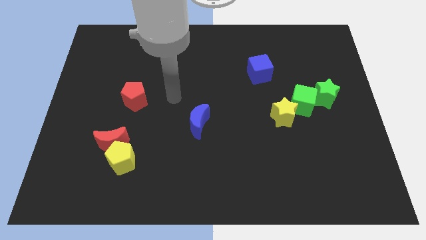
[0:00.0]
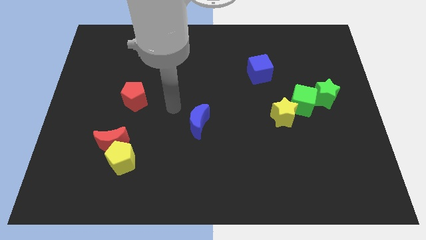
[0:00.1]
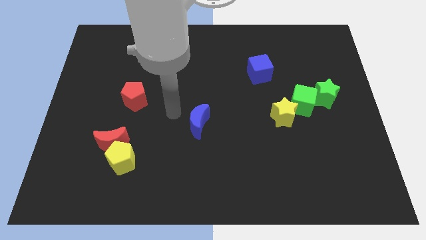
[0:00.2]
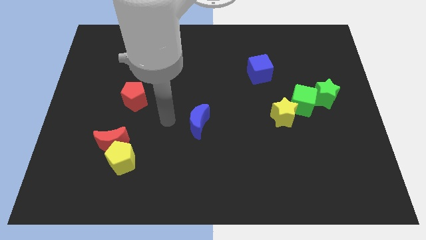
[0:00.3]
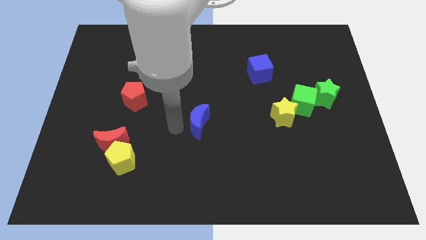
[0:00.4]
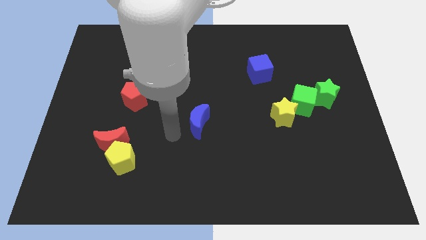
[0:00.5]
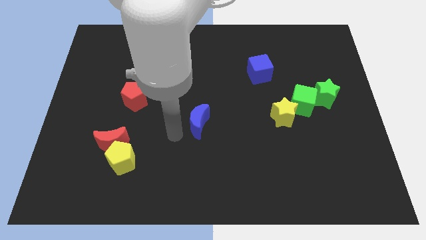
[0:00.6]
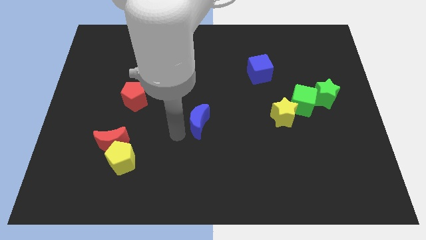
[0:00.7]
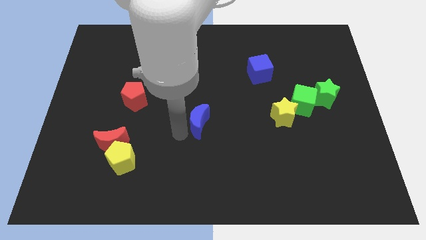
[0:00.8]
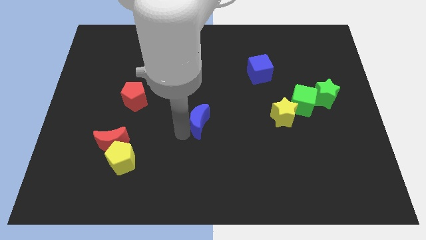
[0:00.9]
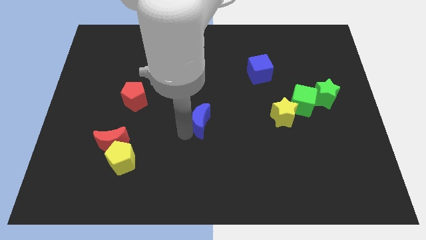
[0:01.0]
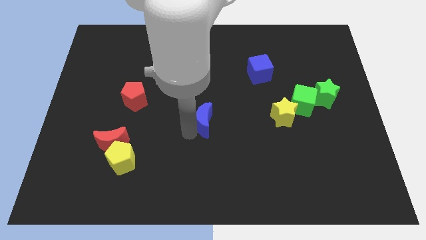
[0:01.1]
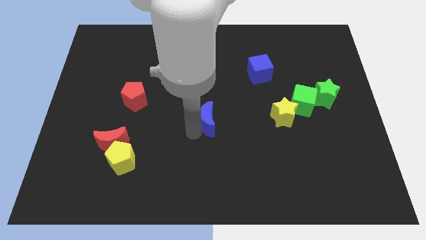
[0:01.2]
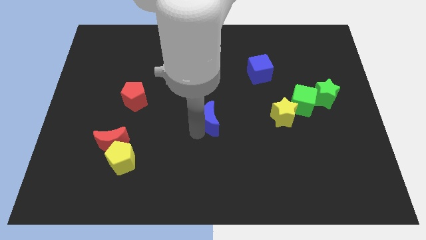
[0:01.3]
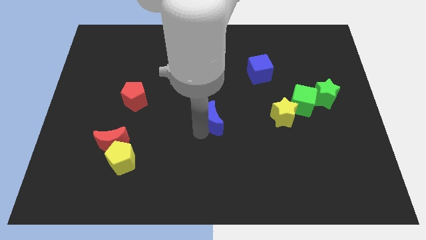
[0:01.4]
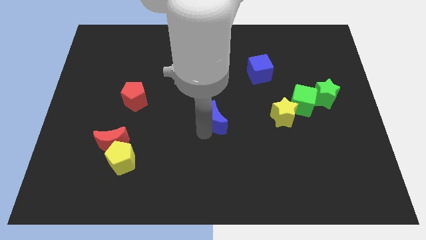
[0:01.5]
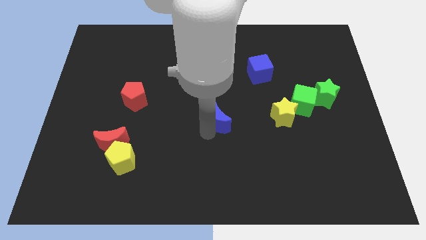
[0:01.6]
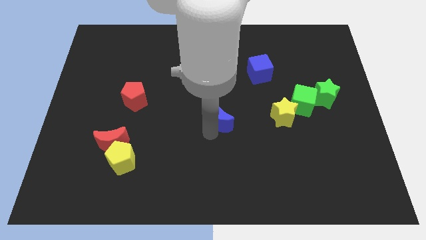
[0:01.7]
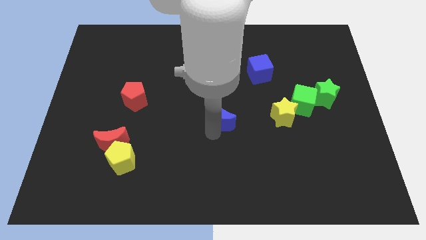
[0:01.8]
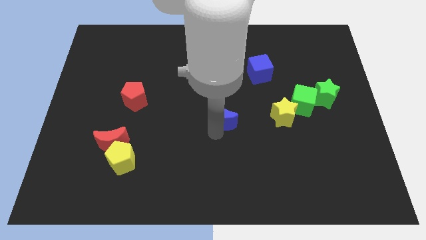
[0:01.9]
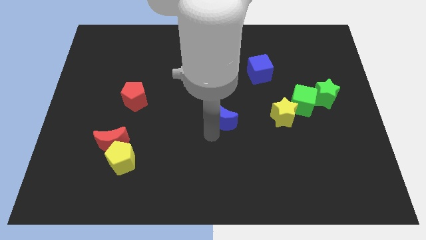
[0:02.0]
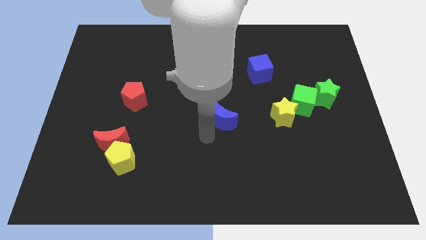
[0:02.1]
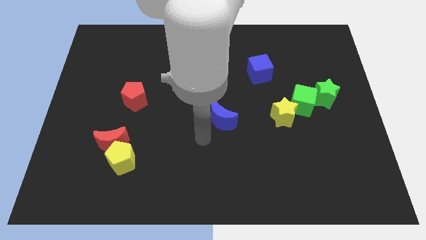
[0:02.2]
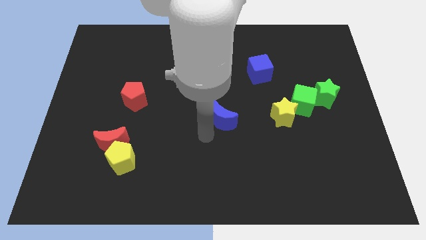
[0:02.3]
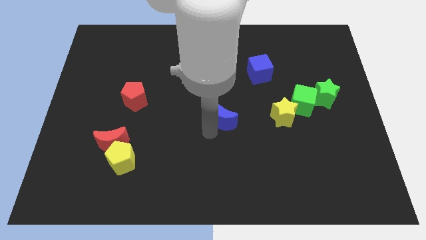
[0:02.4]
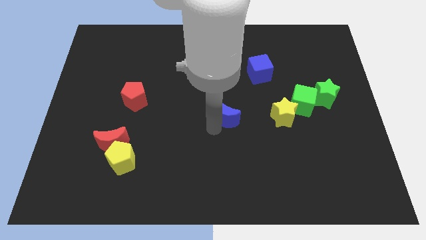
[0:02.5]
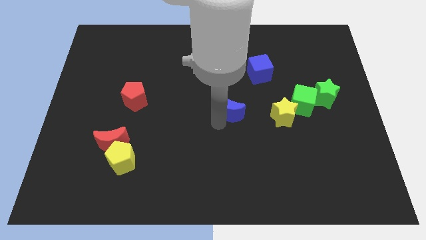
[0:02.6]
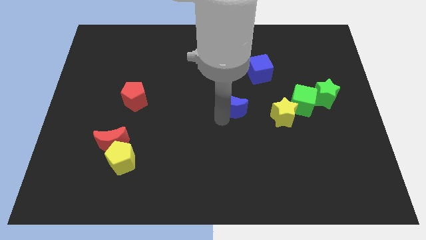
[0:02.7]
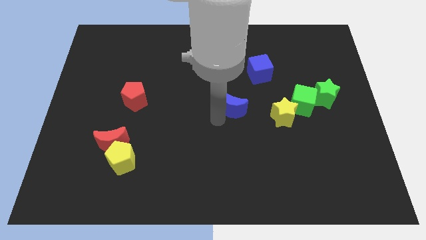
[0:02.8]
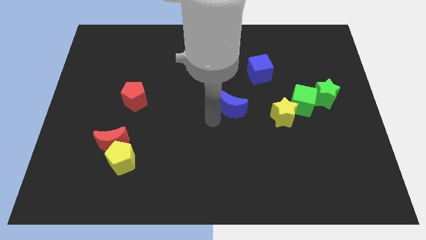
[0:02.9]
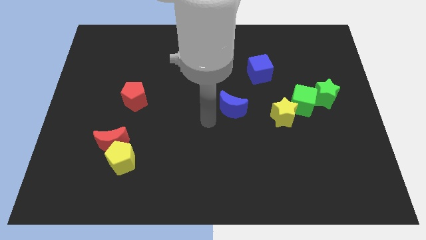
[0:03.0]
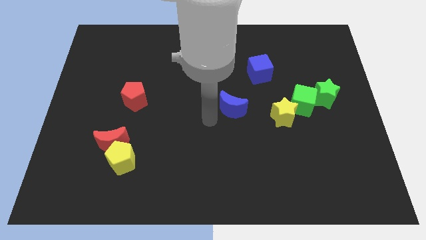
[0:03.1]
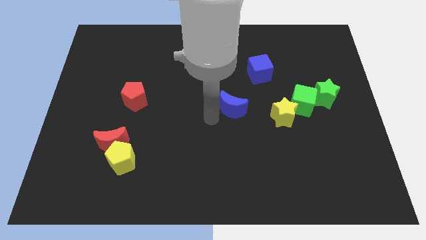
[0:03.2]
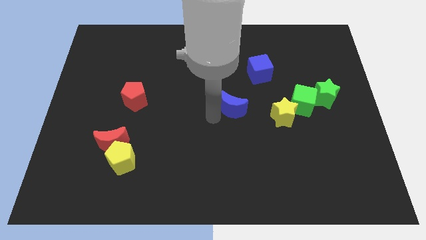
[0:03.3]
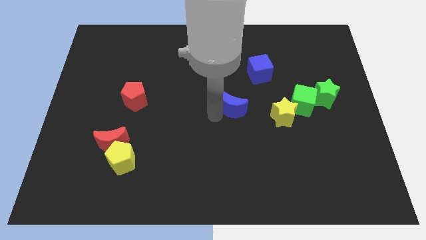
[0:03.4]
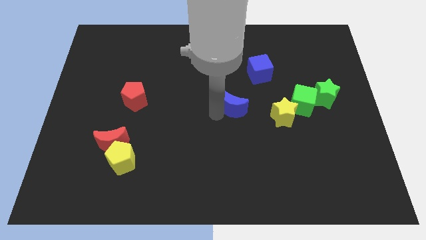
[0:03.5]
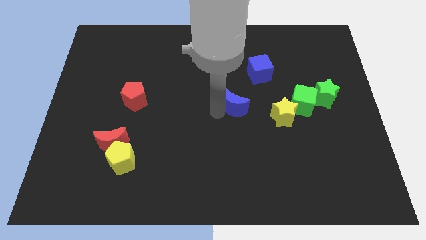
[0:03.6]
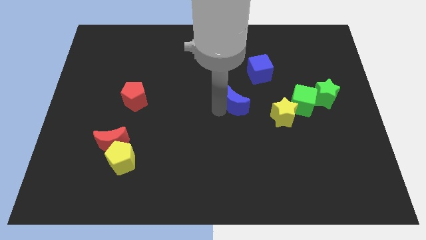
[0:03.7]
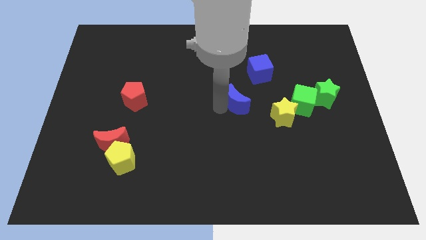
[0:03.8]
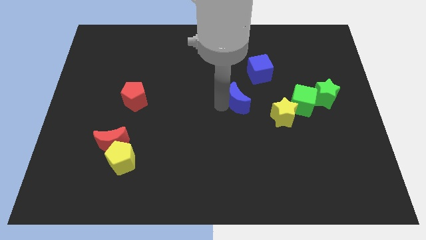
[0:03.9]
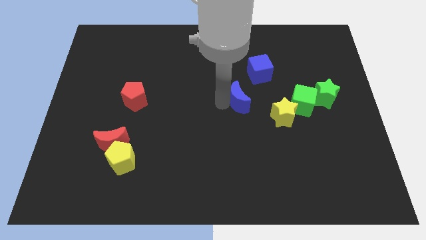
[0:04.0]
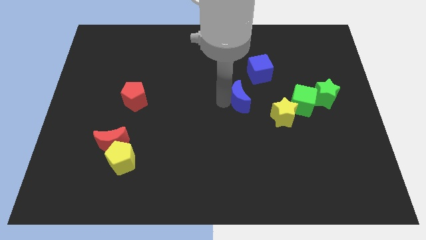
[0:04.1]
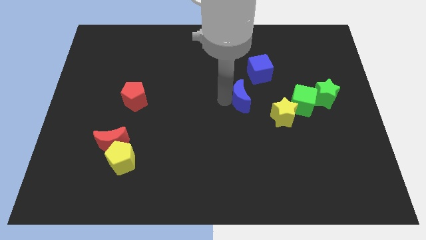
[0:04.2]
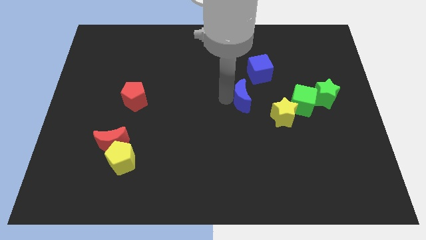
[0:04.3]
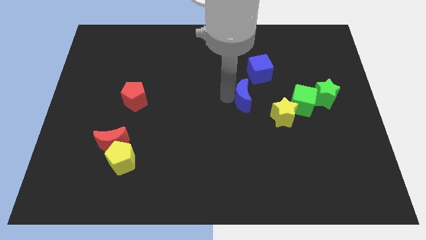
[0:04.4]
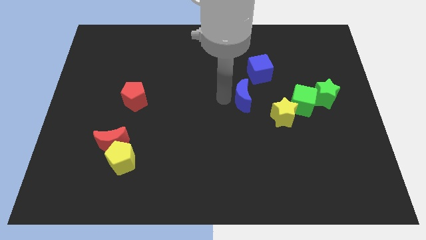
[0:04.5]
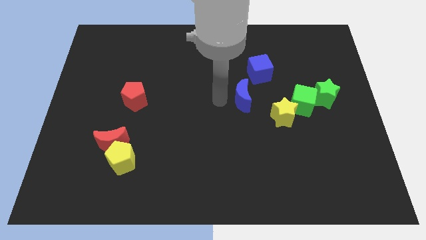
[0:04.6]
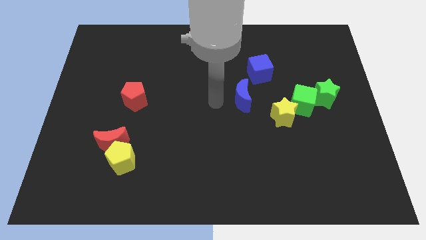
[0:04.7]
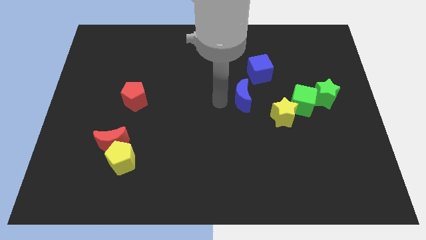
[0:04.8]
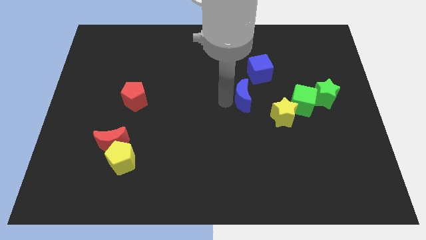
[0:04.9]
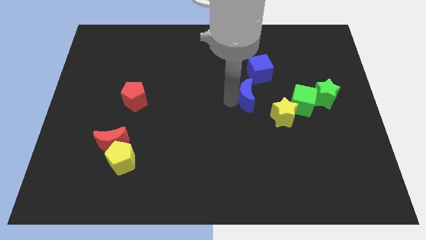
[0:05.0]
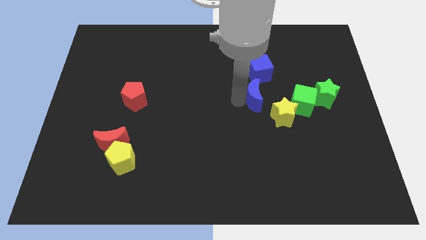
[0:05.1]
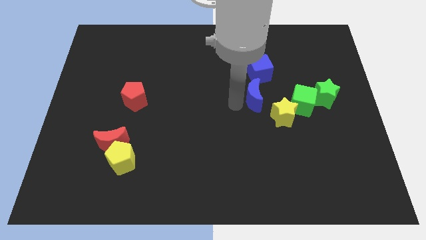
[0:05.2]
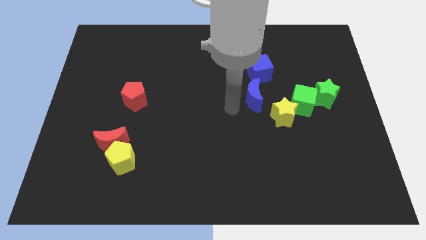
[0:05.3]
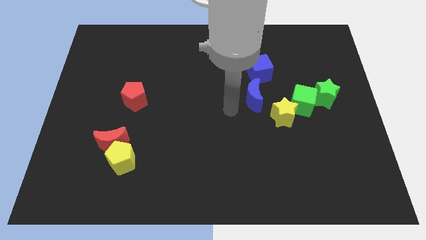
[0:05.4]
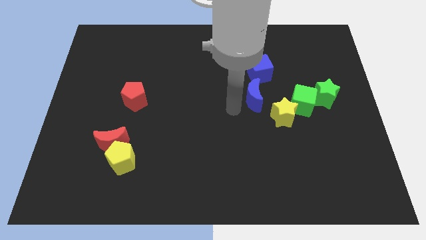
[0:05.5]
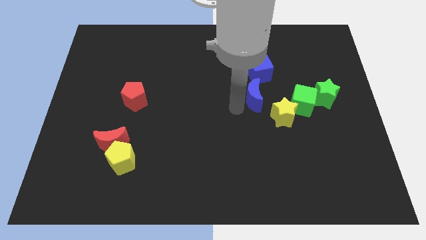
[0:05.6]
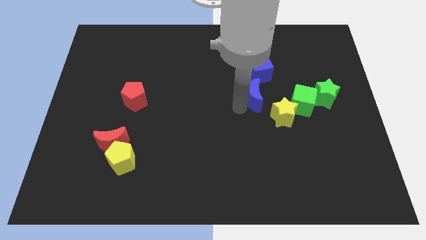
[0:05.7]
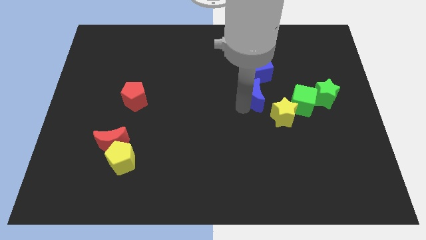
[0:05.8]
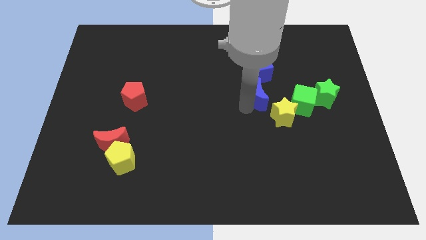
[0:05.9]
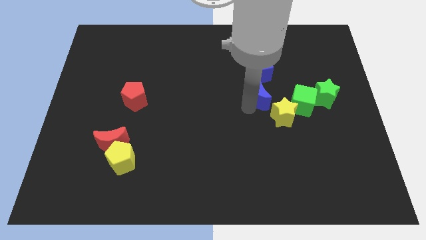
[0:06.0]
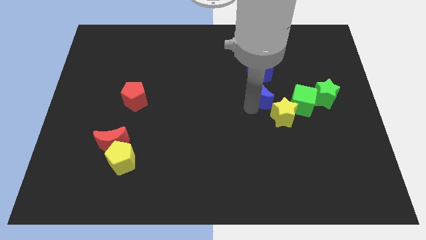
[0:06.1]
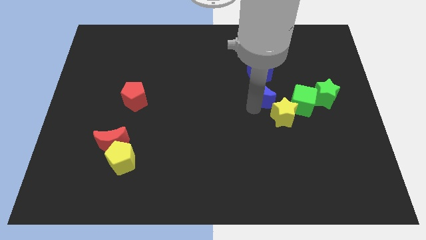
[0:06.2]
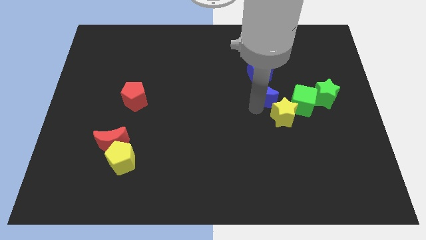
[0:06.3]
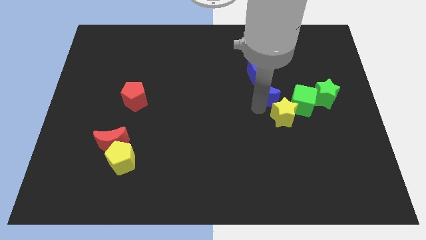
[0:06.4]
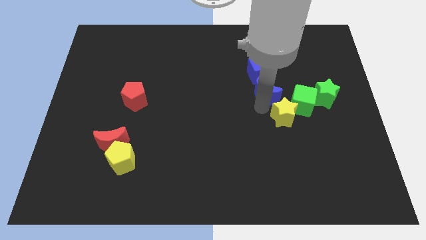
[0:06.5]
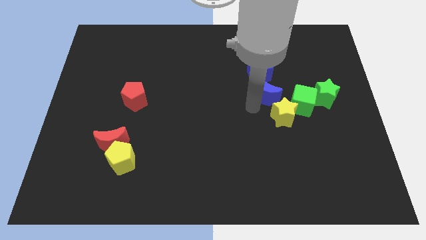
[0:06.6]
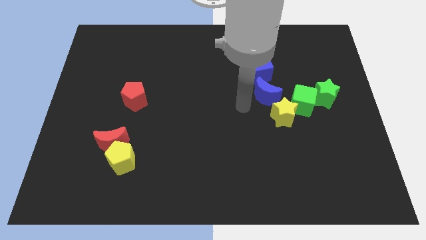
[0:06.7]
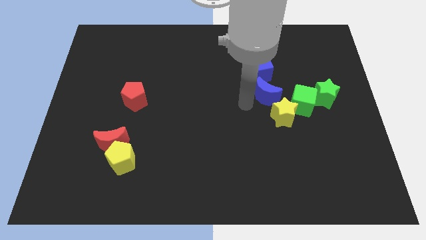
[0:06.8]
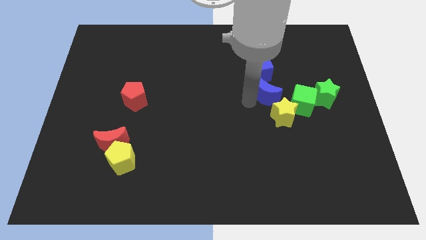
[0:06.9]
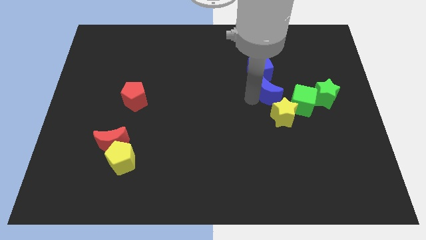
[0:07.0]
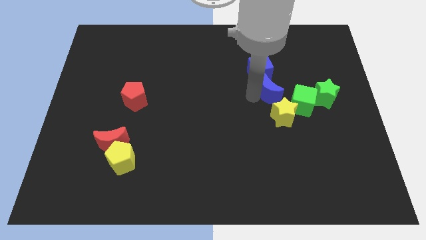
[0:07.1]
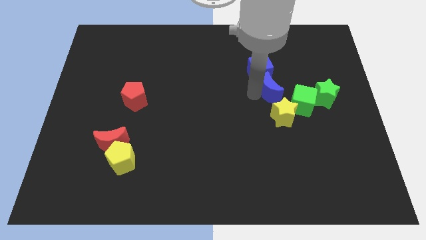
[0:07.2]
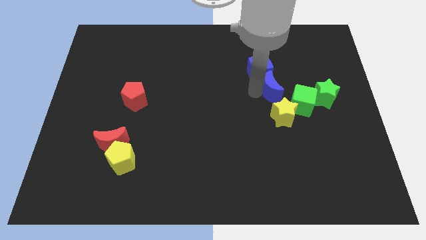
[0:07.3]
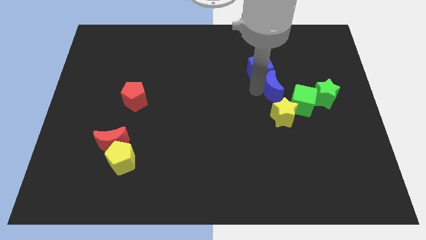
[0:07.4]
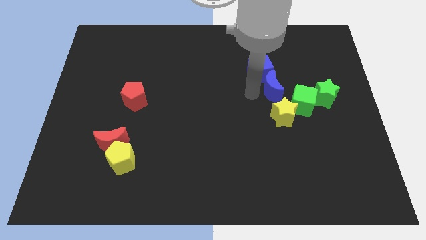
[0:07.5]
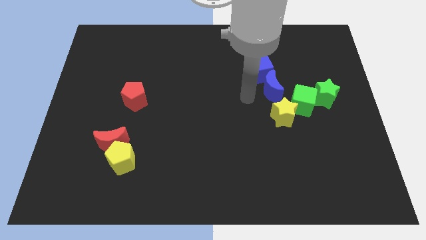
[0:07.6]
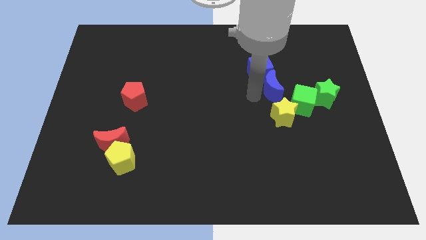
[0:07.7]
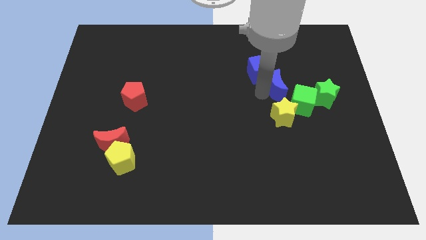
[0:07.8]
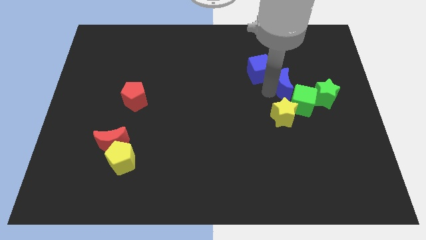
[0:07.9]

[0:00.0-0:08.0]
put the blue moon to the top left side of the green star

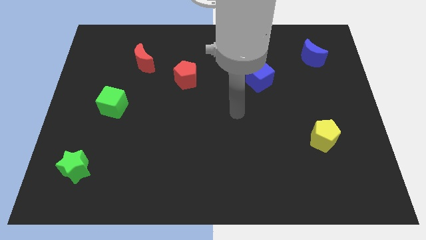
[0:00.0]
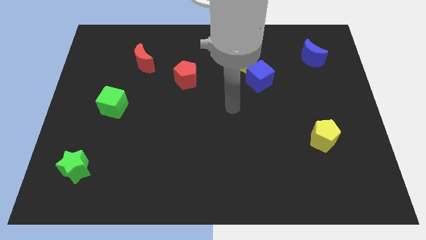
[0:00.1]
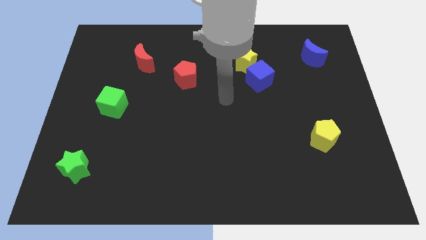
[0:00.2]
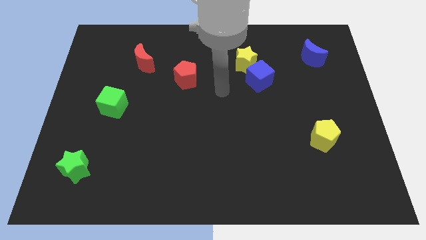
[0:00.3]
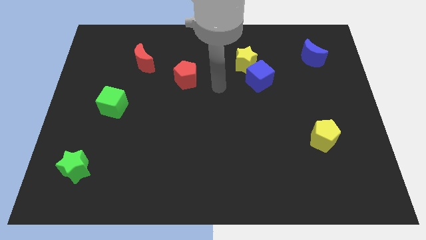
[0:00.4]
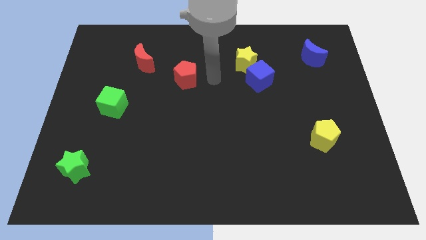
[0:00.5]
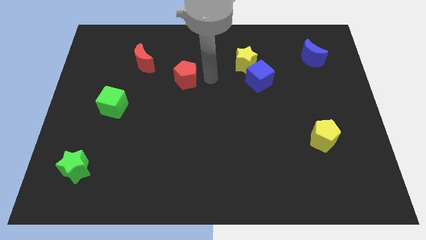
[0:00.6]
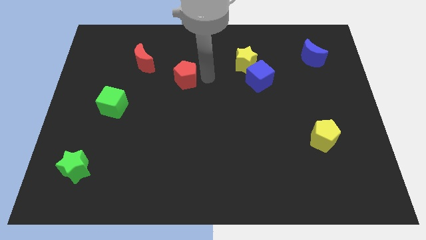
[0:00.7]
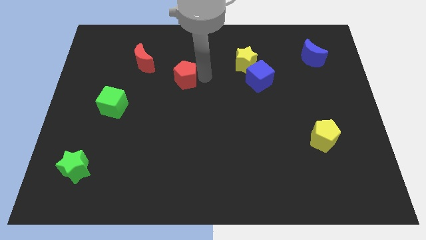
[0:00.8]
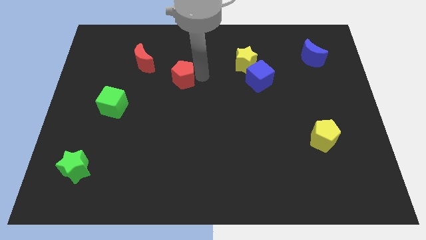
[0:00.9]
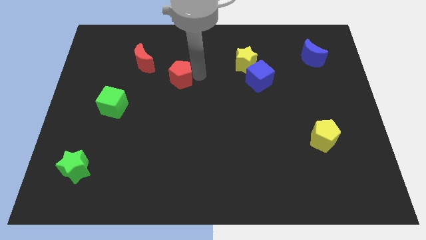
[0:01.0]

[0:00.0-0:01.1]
slide the red pentagon diagonally down and to the right of the red moon
